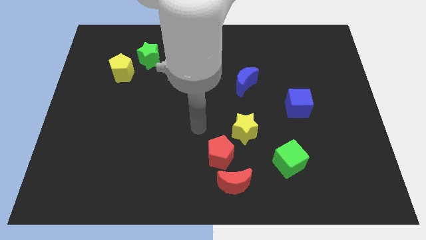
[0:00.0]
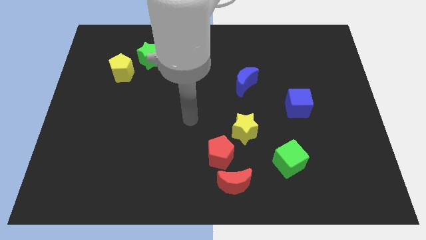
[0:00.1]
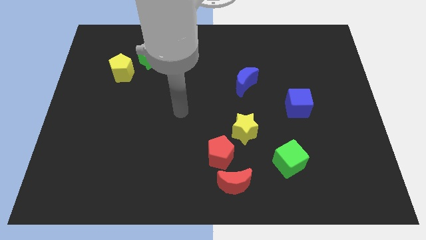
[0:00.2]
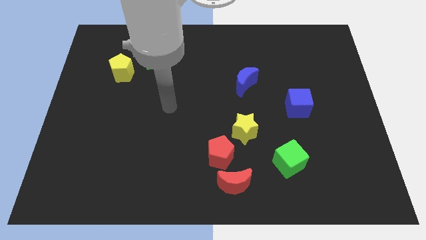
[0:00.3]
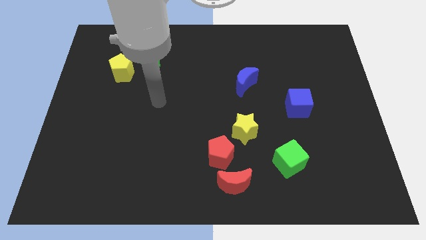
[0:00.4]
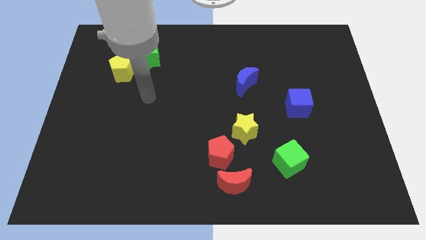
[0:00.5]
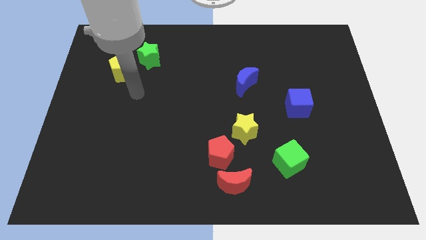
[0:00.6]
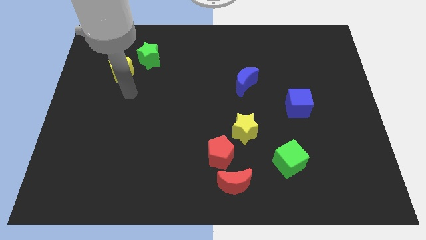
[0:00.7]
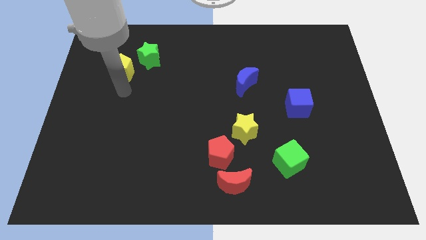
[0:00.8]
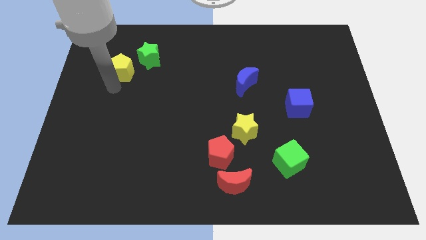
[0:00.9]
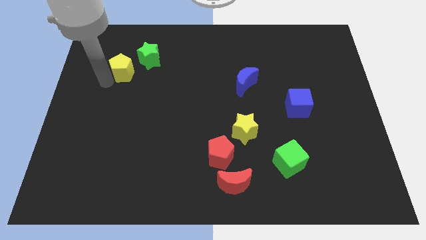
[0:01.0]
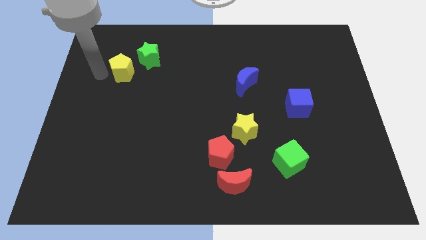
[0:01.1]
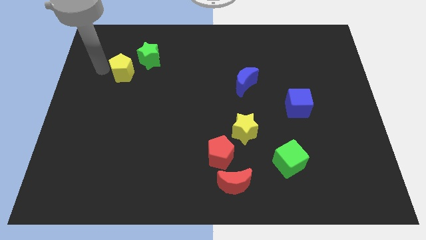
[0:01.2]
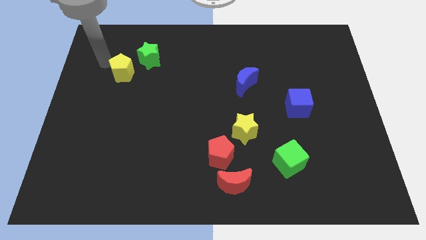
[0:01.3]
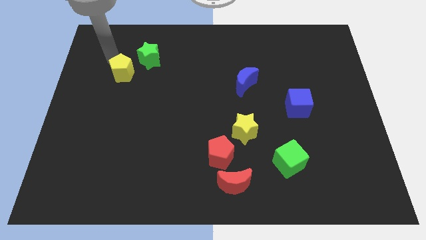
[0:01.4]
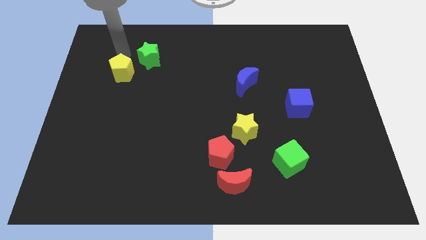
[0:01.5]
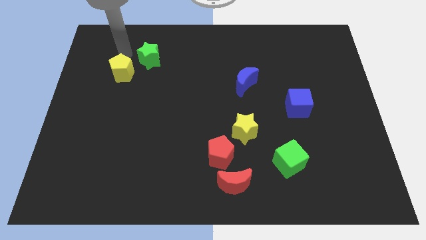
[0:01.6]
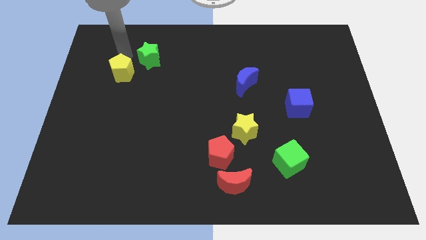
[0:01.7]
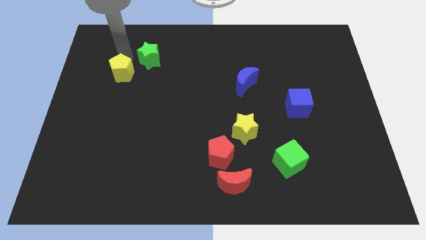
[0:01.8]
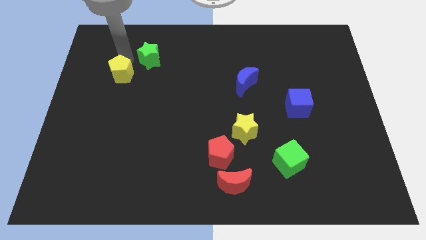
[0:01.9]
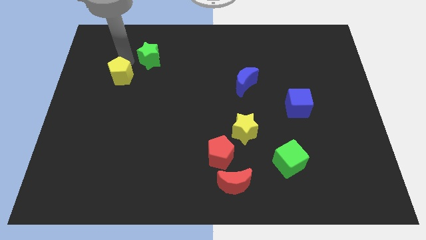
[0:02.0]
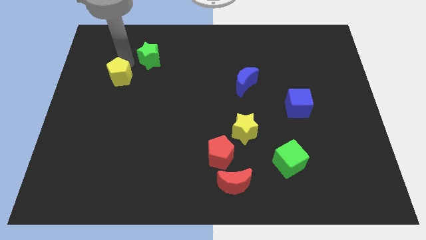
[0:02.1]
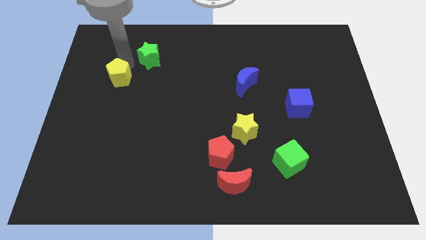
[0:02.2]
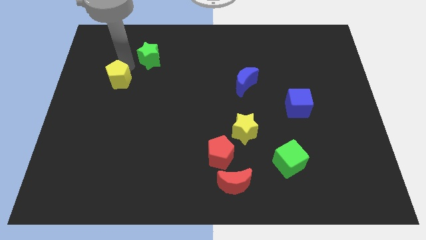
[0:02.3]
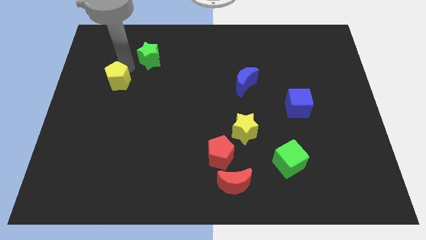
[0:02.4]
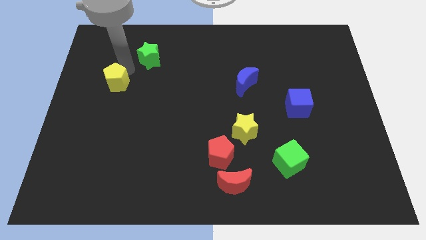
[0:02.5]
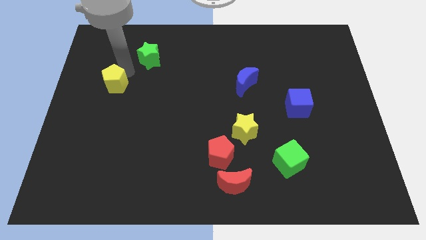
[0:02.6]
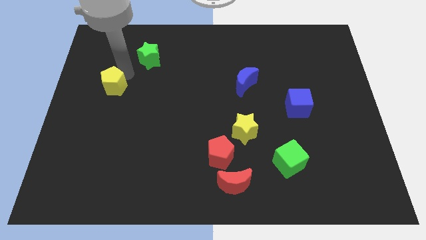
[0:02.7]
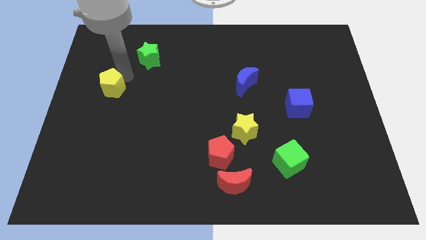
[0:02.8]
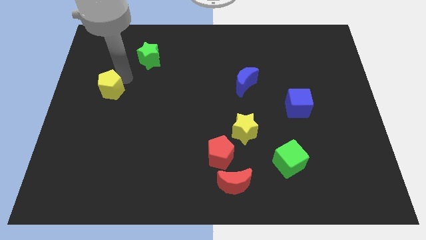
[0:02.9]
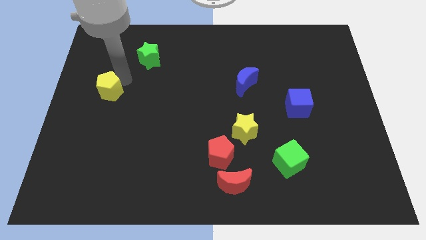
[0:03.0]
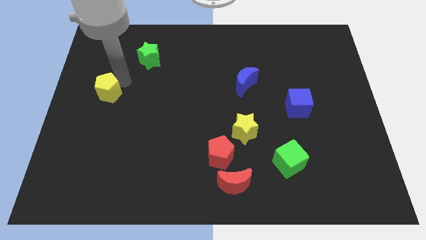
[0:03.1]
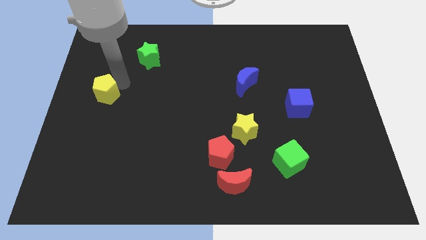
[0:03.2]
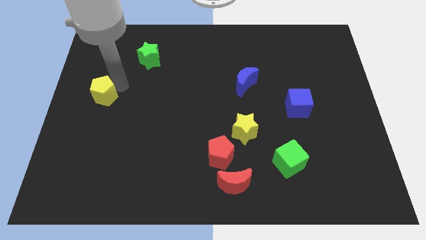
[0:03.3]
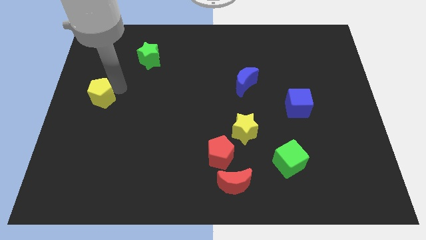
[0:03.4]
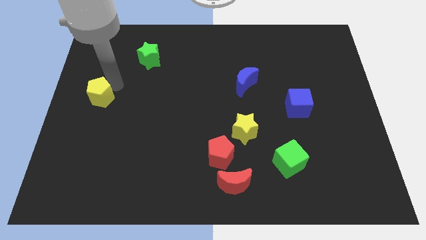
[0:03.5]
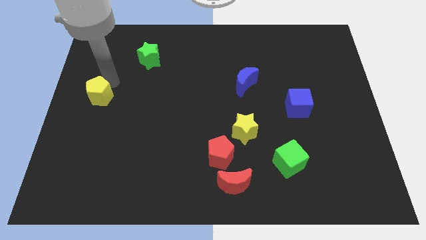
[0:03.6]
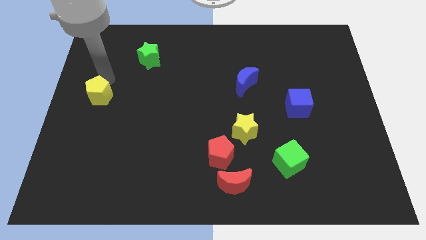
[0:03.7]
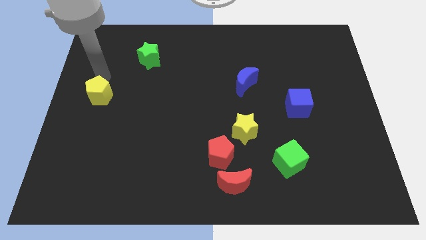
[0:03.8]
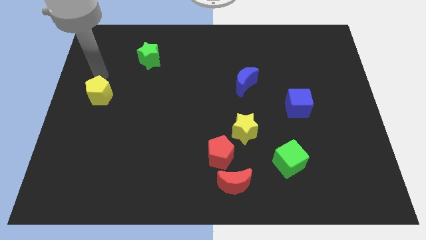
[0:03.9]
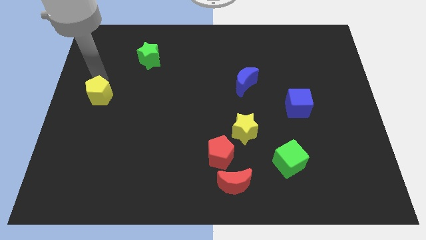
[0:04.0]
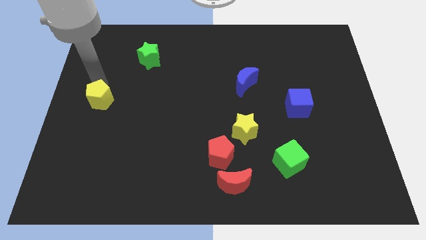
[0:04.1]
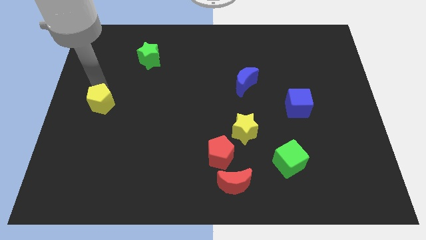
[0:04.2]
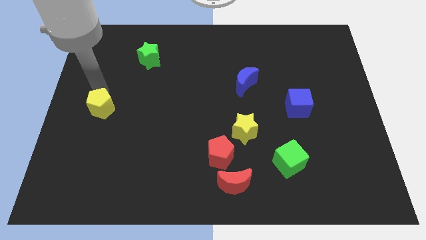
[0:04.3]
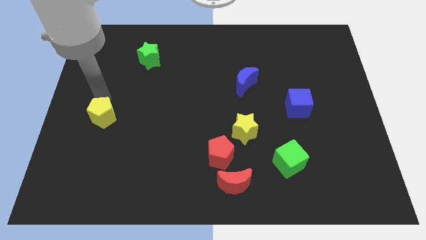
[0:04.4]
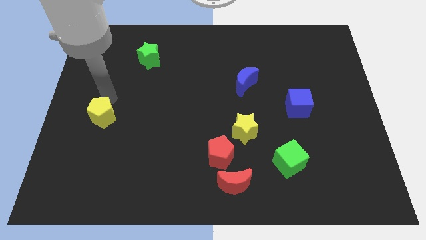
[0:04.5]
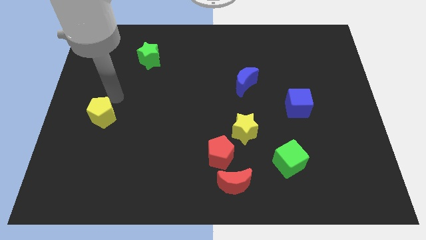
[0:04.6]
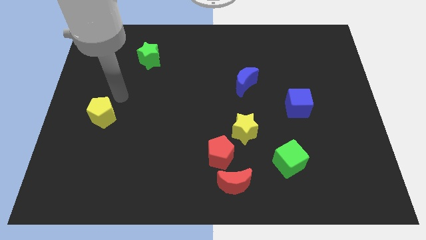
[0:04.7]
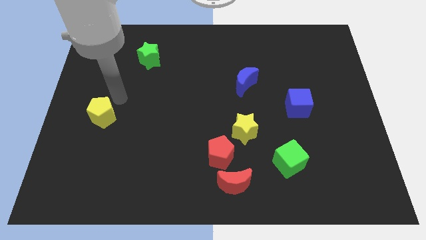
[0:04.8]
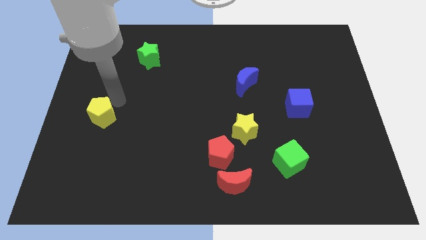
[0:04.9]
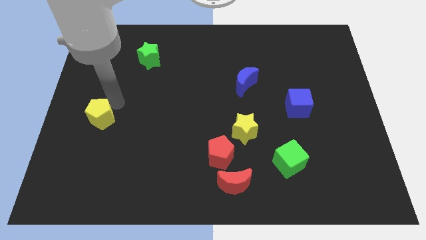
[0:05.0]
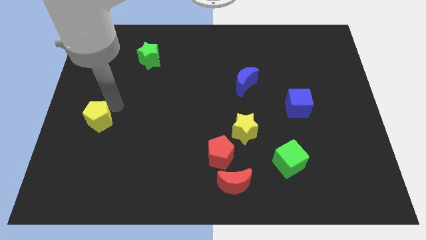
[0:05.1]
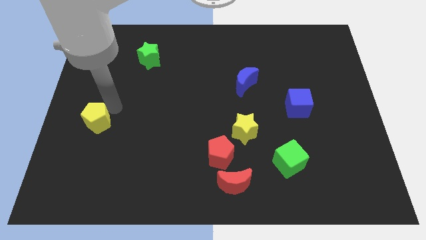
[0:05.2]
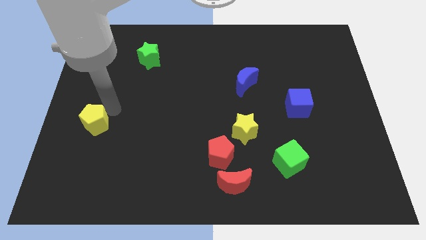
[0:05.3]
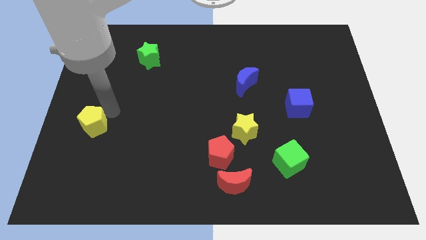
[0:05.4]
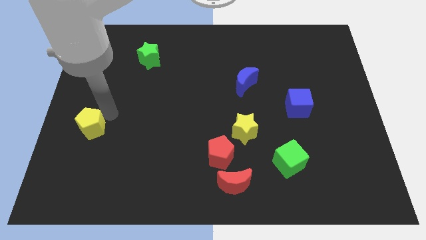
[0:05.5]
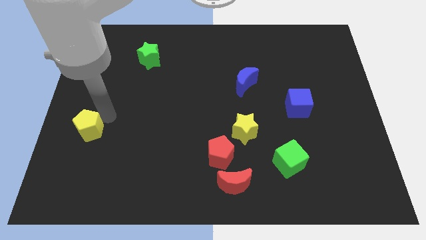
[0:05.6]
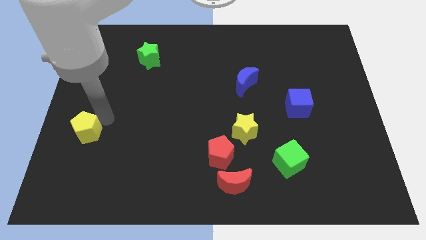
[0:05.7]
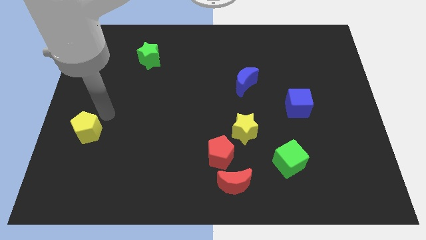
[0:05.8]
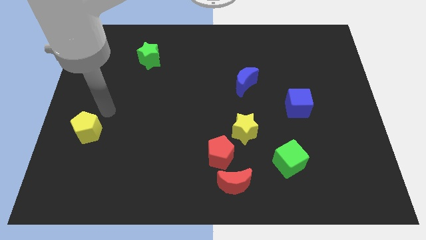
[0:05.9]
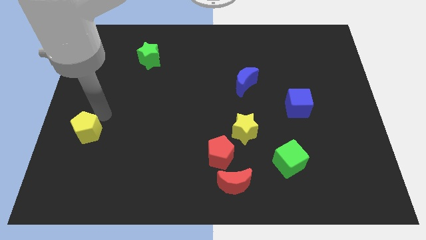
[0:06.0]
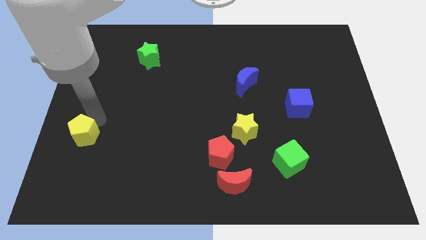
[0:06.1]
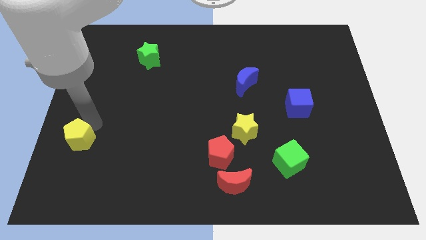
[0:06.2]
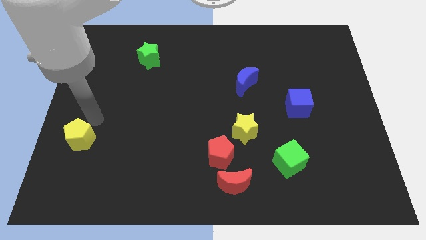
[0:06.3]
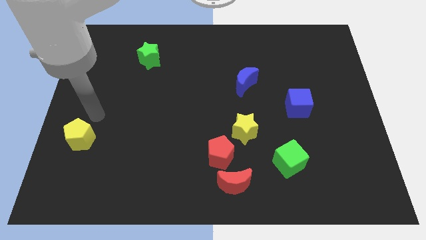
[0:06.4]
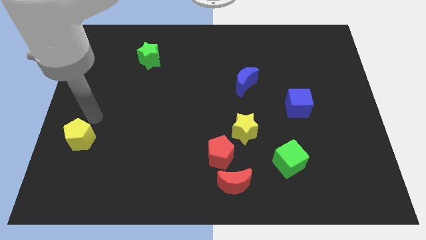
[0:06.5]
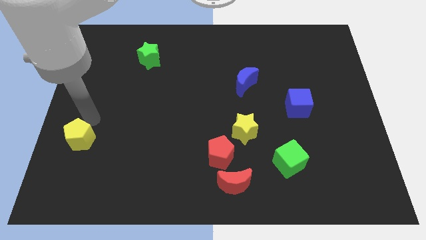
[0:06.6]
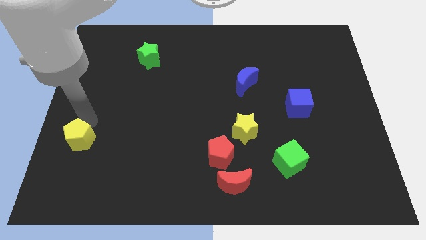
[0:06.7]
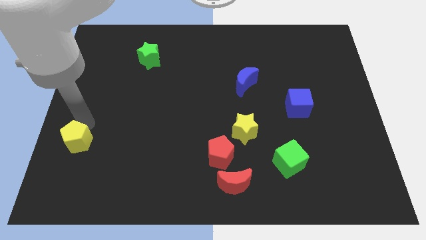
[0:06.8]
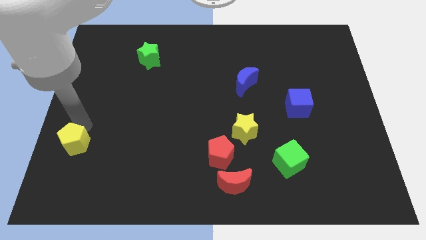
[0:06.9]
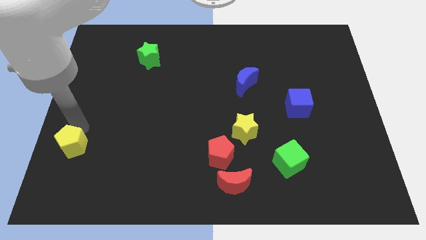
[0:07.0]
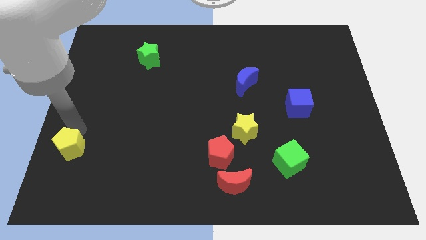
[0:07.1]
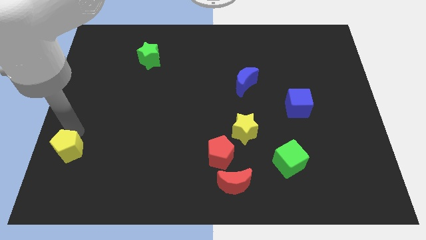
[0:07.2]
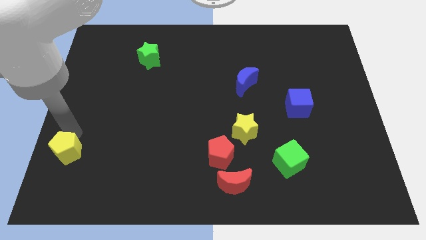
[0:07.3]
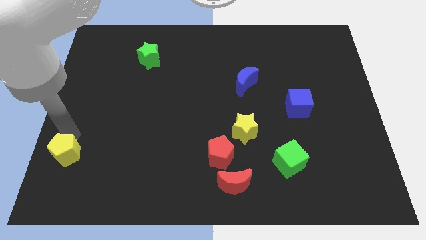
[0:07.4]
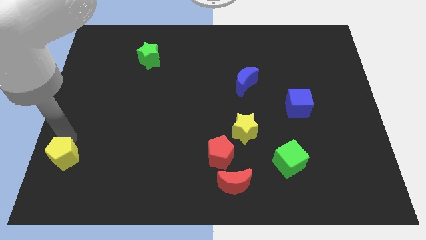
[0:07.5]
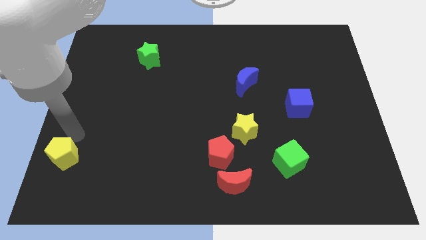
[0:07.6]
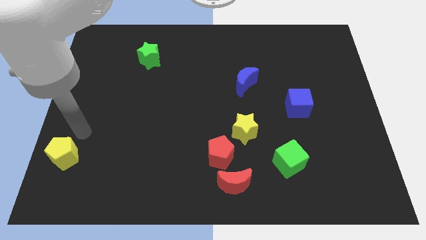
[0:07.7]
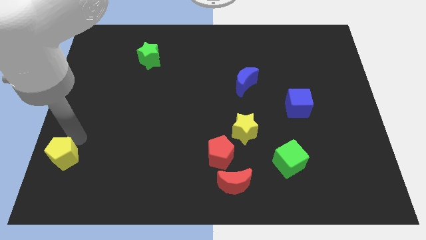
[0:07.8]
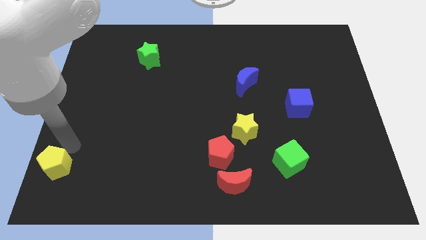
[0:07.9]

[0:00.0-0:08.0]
move the yellow pentagon to the bottom left
